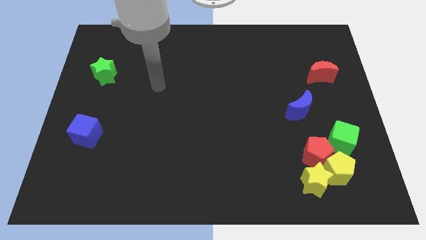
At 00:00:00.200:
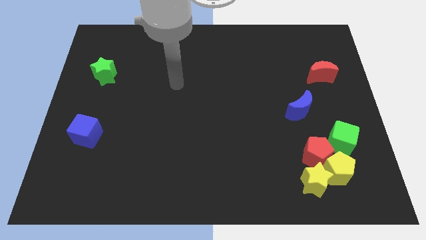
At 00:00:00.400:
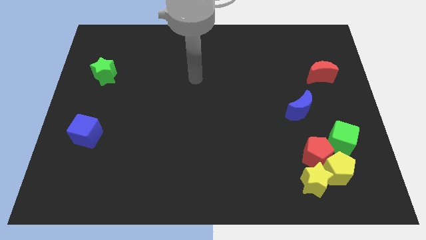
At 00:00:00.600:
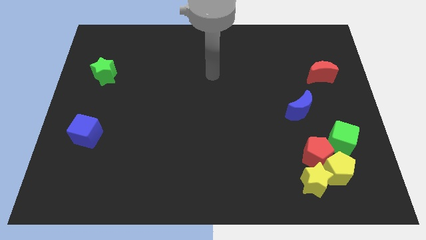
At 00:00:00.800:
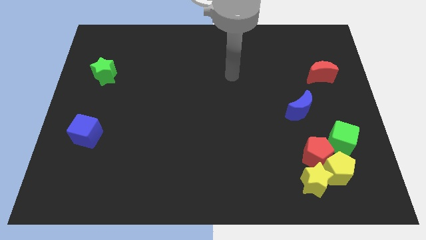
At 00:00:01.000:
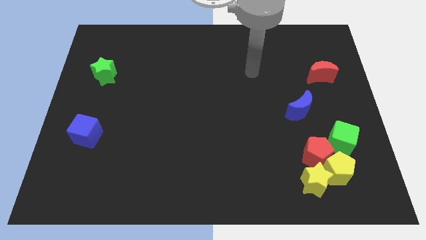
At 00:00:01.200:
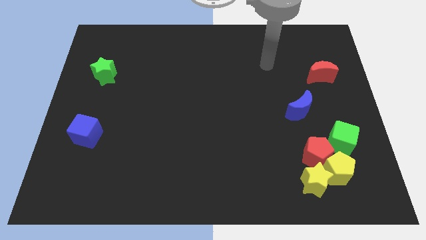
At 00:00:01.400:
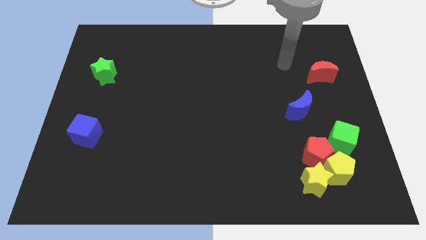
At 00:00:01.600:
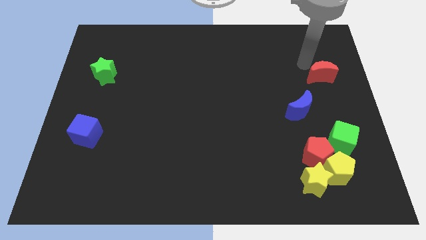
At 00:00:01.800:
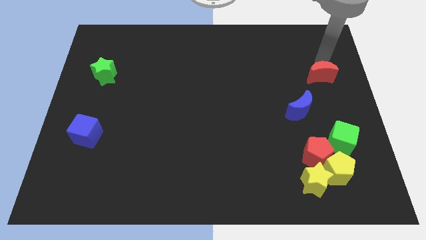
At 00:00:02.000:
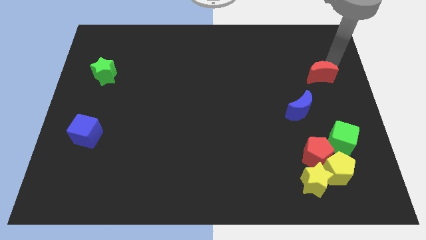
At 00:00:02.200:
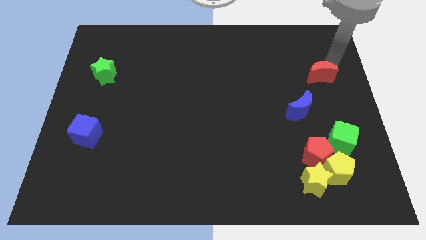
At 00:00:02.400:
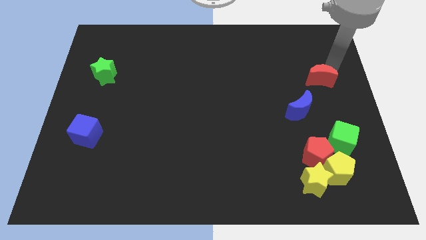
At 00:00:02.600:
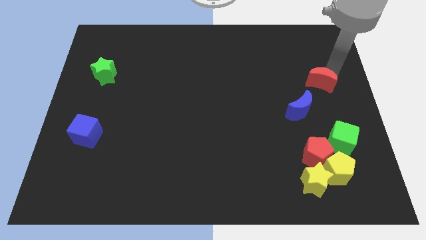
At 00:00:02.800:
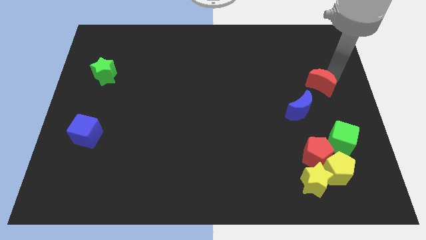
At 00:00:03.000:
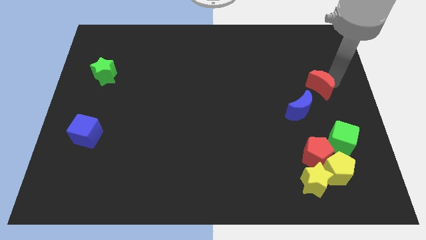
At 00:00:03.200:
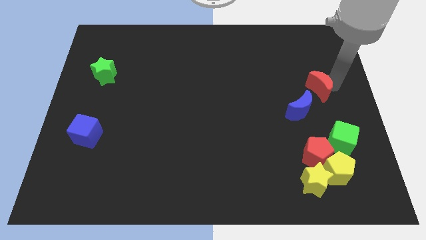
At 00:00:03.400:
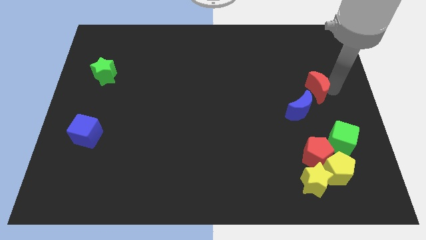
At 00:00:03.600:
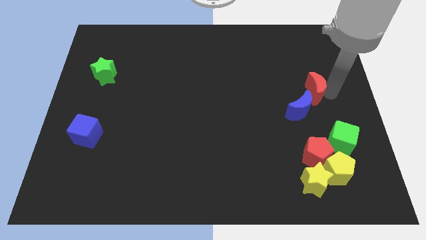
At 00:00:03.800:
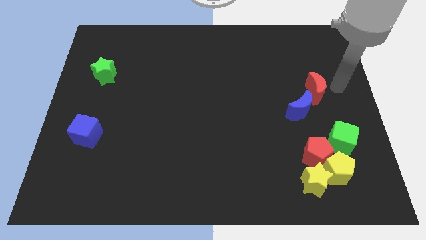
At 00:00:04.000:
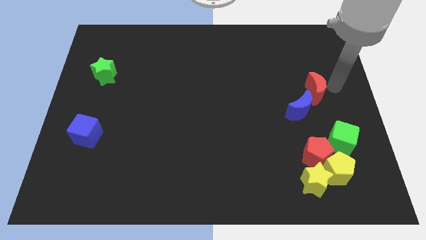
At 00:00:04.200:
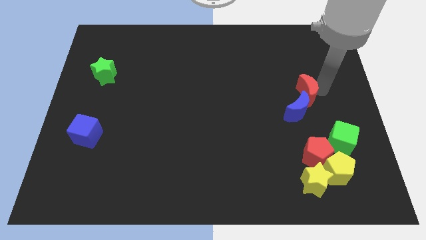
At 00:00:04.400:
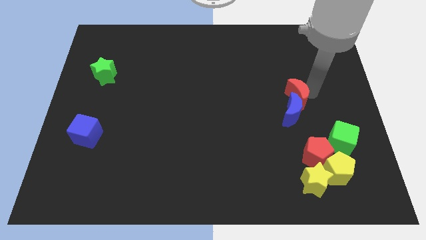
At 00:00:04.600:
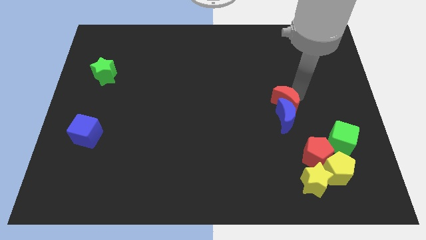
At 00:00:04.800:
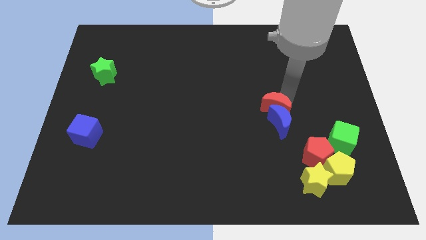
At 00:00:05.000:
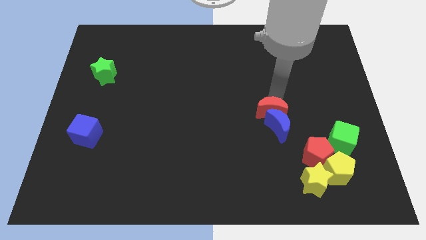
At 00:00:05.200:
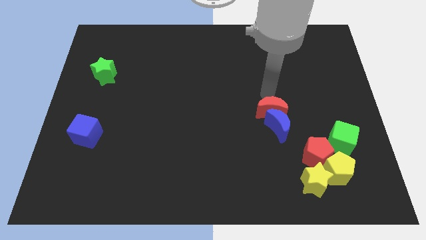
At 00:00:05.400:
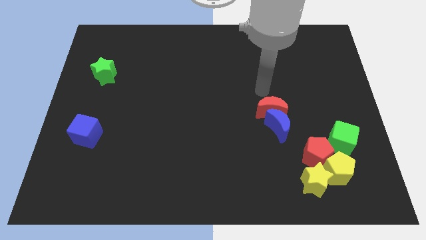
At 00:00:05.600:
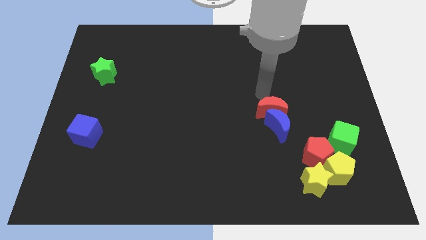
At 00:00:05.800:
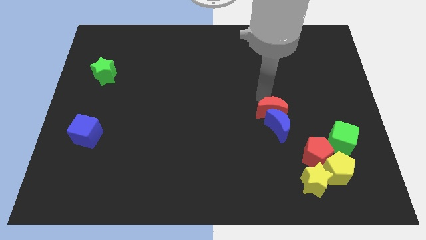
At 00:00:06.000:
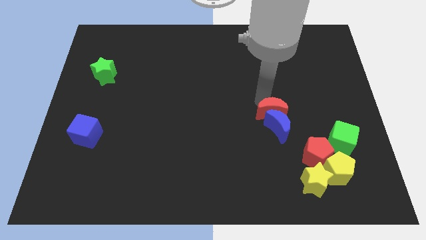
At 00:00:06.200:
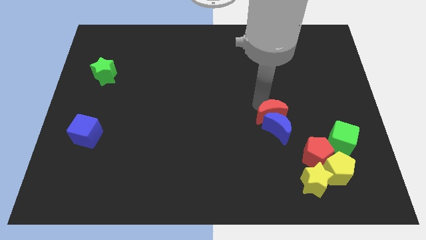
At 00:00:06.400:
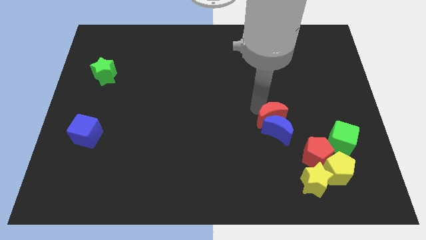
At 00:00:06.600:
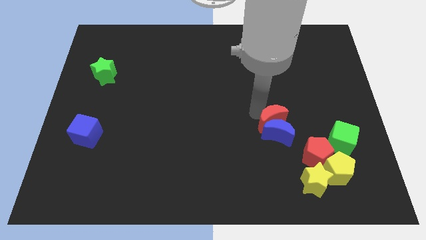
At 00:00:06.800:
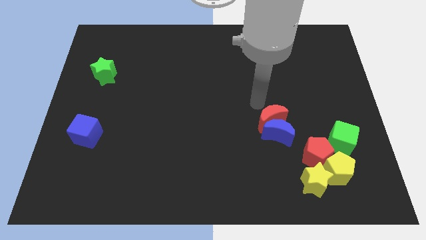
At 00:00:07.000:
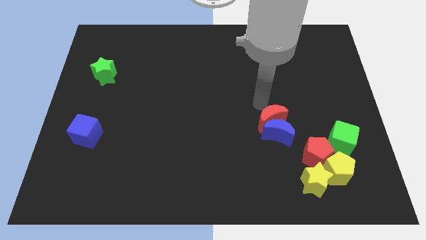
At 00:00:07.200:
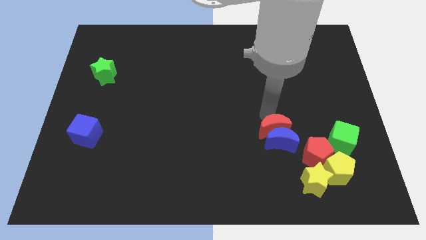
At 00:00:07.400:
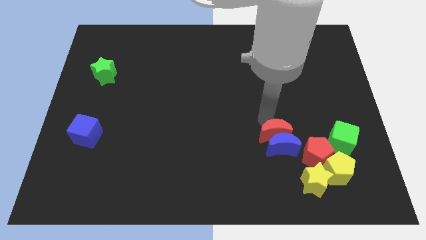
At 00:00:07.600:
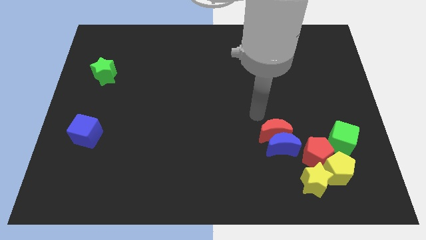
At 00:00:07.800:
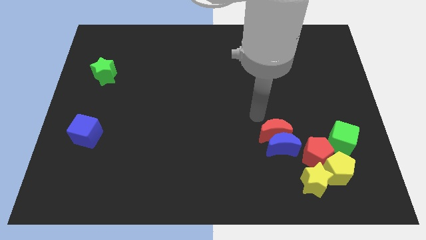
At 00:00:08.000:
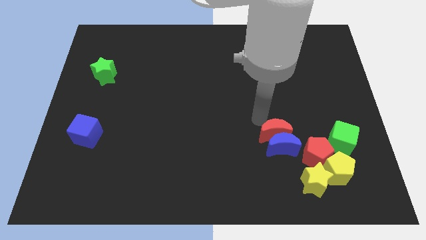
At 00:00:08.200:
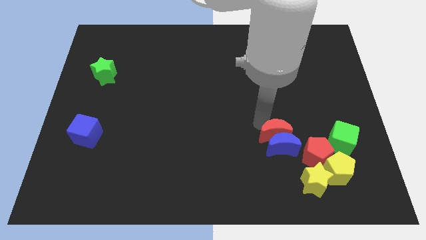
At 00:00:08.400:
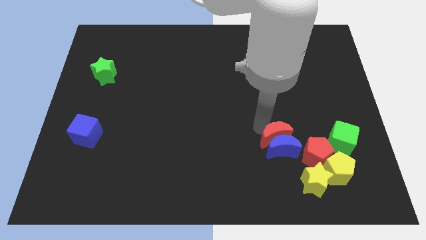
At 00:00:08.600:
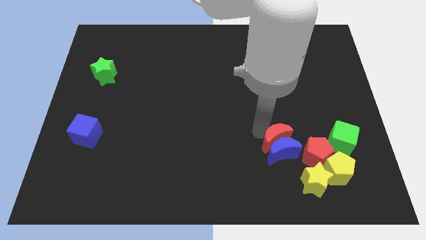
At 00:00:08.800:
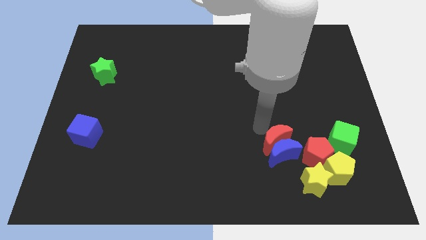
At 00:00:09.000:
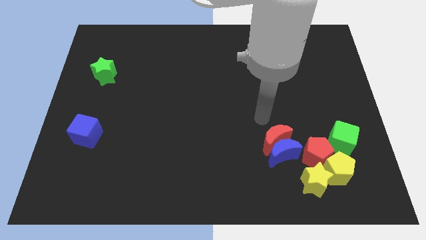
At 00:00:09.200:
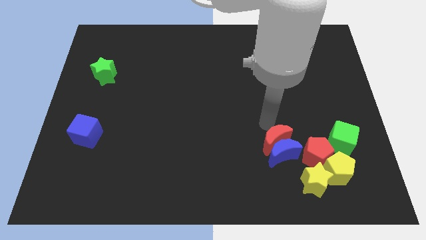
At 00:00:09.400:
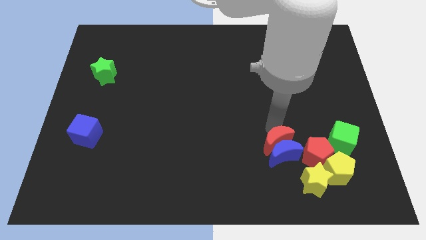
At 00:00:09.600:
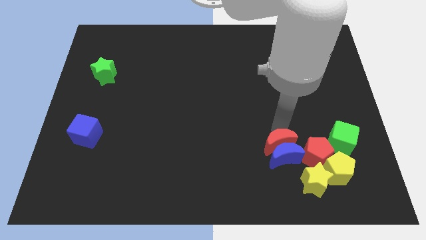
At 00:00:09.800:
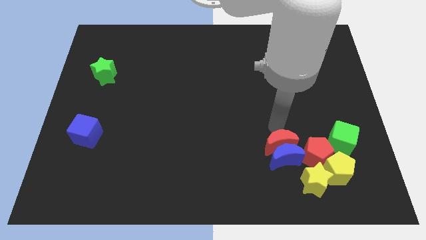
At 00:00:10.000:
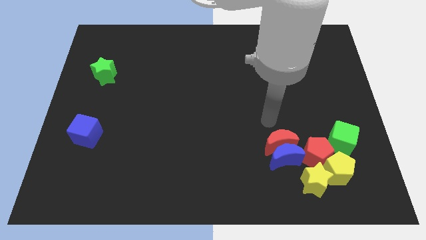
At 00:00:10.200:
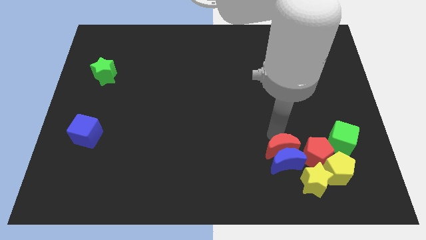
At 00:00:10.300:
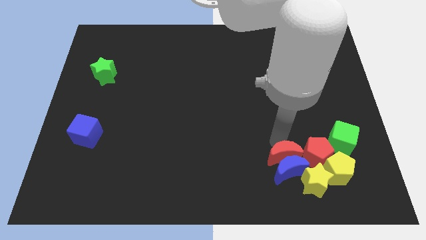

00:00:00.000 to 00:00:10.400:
put the red moon diagonally down and to the left of the red pentagon

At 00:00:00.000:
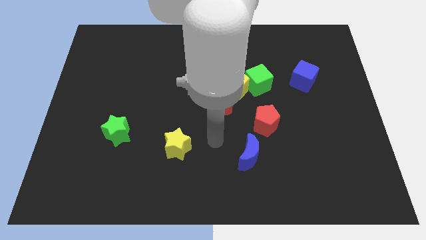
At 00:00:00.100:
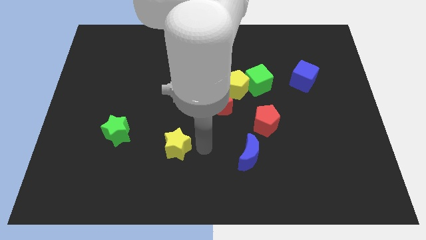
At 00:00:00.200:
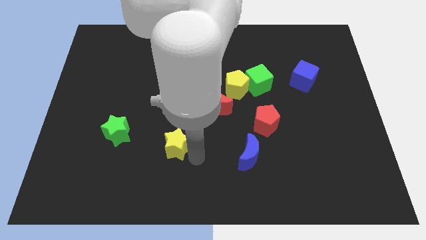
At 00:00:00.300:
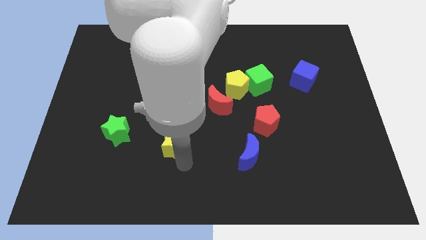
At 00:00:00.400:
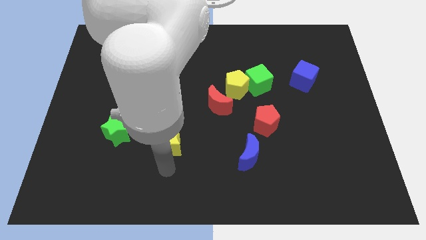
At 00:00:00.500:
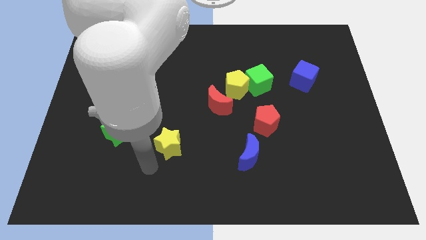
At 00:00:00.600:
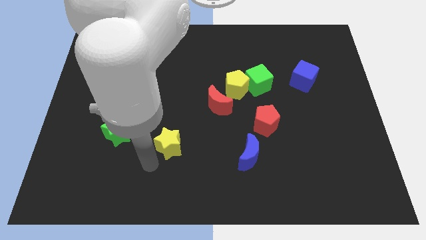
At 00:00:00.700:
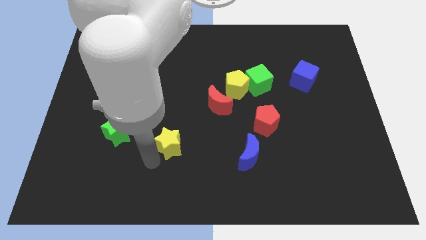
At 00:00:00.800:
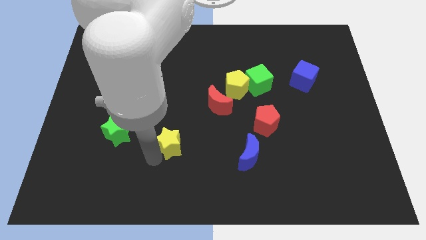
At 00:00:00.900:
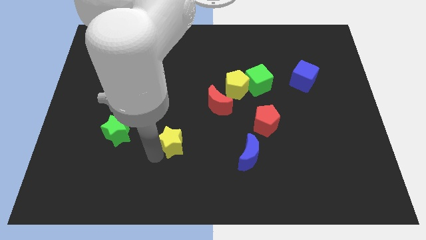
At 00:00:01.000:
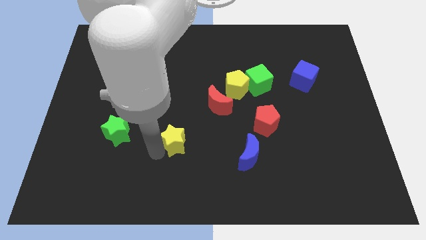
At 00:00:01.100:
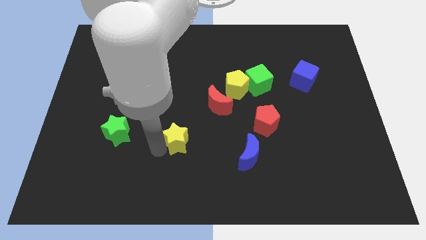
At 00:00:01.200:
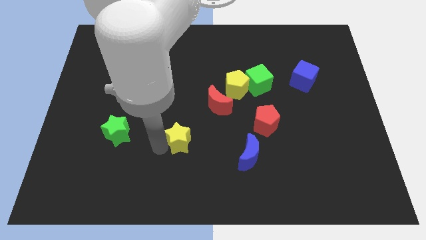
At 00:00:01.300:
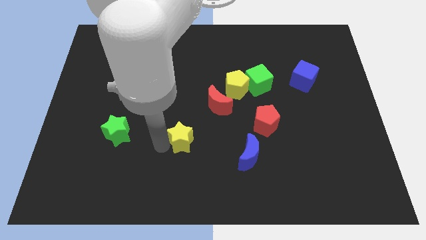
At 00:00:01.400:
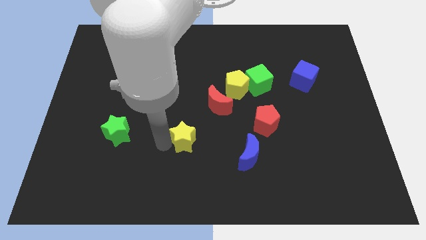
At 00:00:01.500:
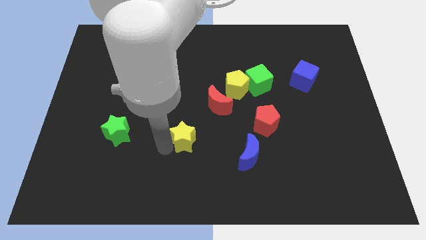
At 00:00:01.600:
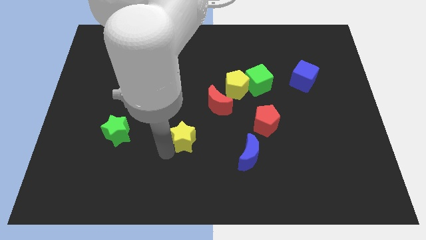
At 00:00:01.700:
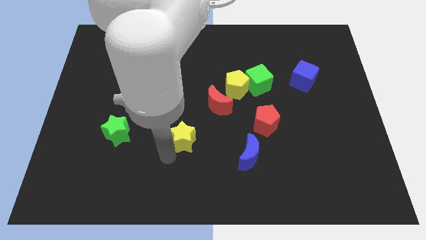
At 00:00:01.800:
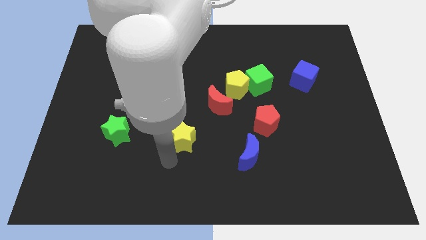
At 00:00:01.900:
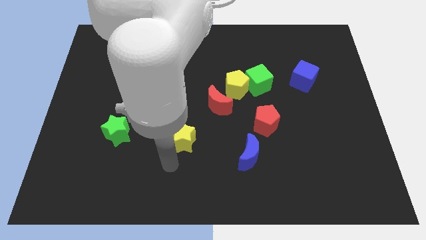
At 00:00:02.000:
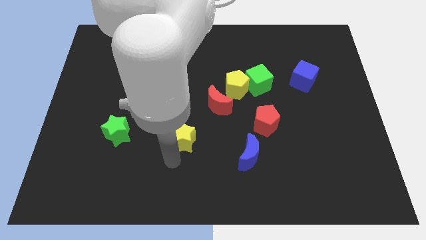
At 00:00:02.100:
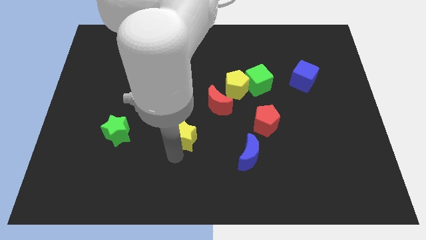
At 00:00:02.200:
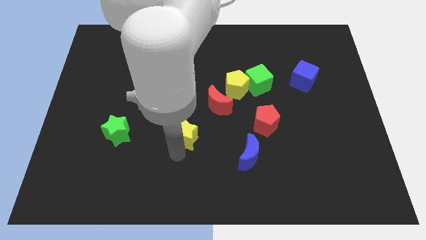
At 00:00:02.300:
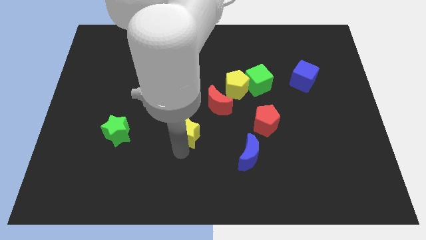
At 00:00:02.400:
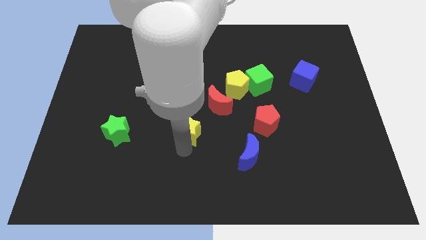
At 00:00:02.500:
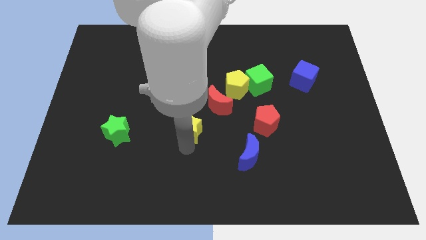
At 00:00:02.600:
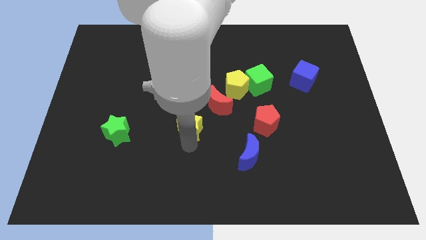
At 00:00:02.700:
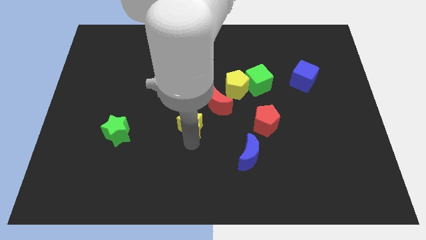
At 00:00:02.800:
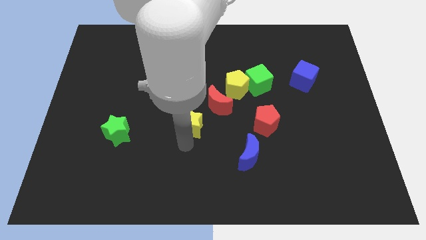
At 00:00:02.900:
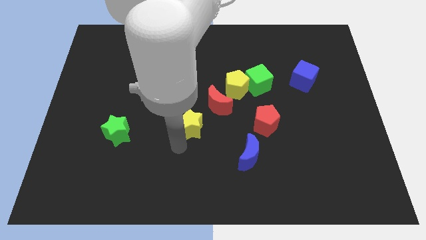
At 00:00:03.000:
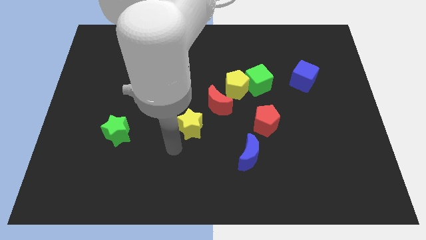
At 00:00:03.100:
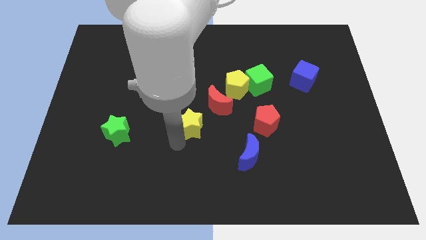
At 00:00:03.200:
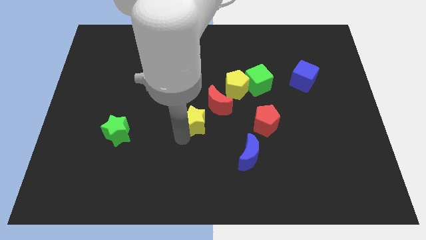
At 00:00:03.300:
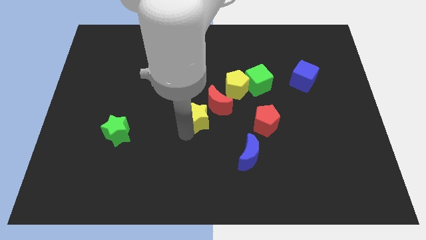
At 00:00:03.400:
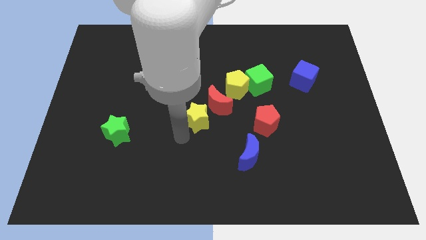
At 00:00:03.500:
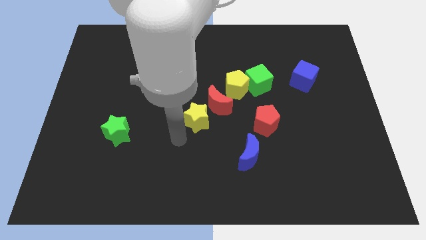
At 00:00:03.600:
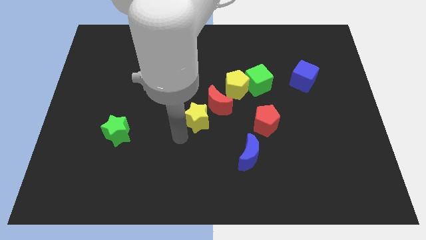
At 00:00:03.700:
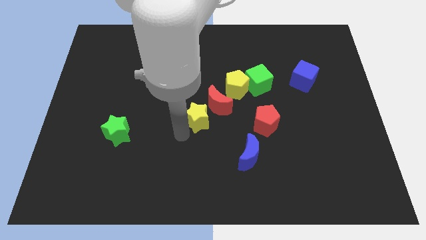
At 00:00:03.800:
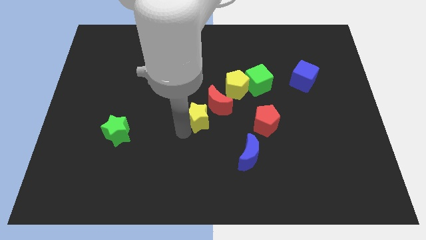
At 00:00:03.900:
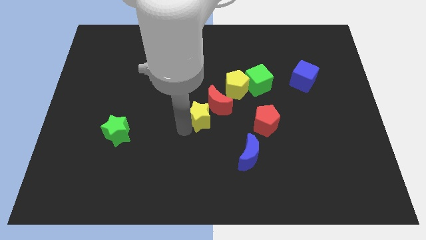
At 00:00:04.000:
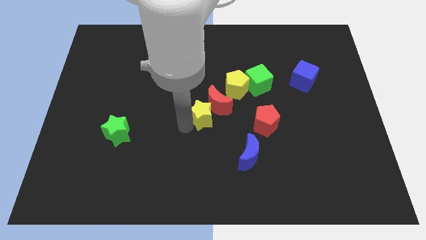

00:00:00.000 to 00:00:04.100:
push the yellow star to the bottom left side of the yellow pentagon
